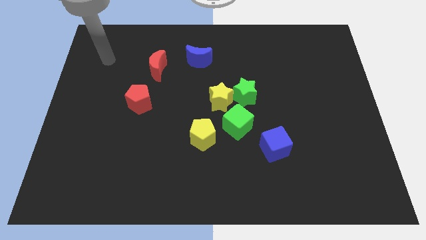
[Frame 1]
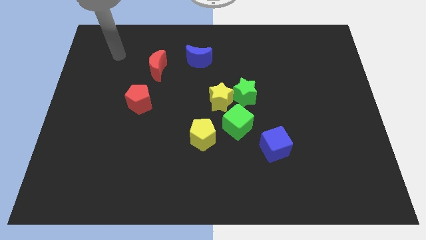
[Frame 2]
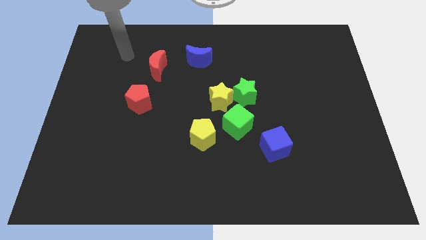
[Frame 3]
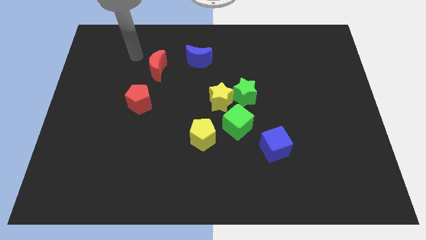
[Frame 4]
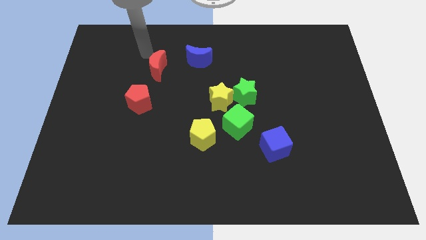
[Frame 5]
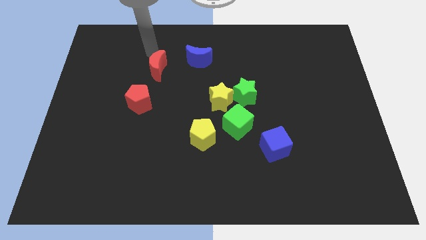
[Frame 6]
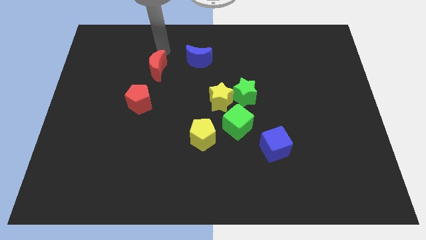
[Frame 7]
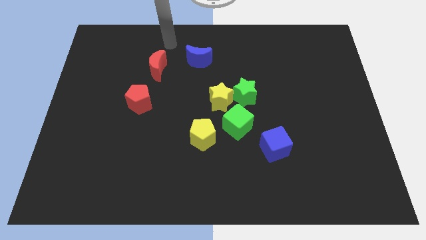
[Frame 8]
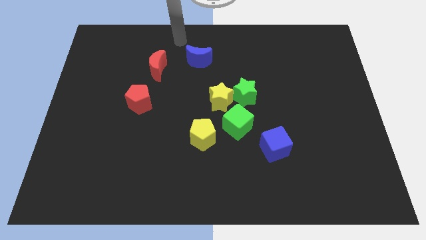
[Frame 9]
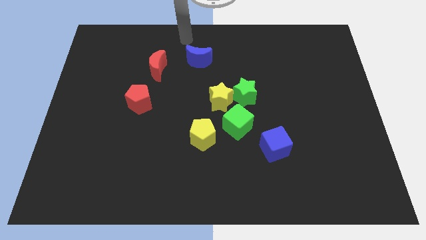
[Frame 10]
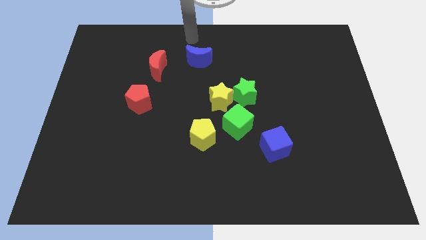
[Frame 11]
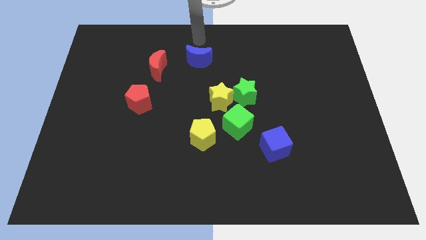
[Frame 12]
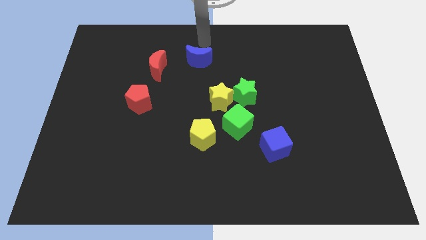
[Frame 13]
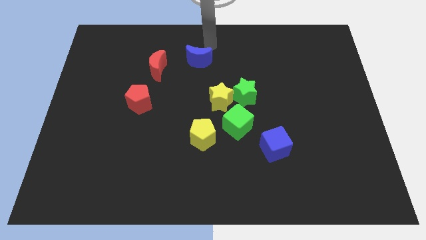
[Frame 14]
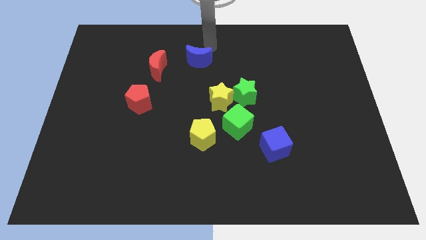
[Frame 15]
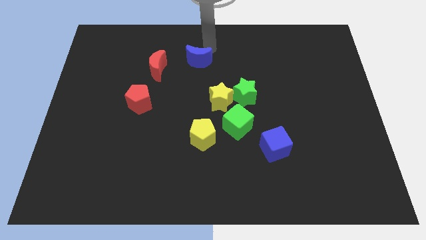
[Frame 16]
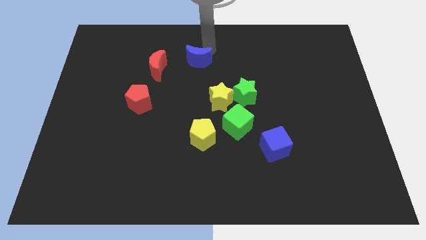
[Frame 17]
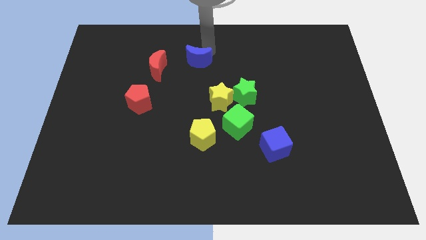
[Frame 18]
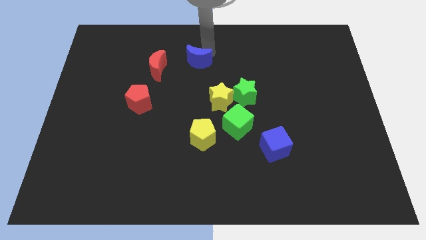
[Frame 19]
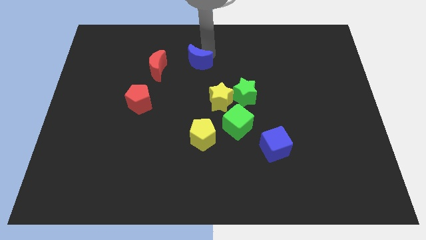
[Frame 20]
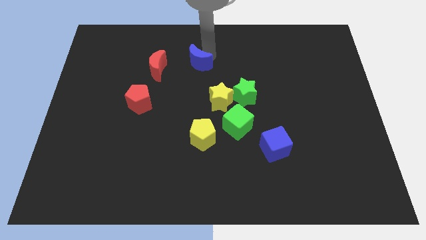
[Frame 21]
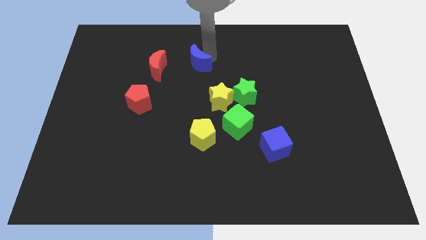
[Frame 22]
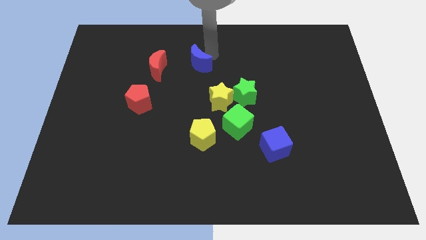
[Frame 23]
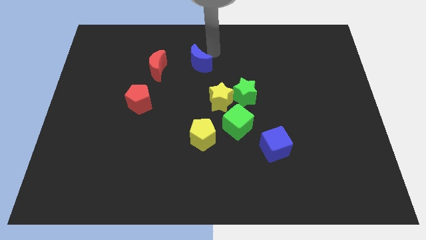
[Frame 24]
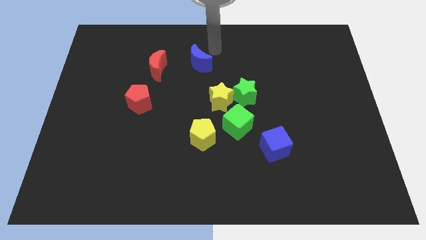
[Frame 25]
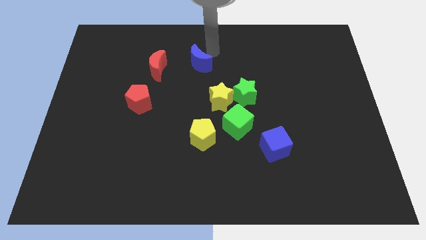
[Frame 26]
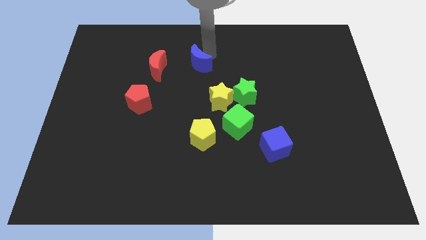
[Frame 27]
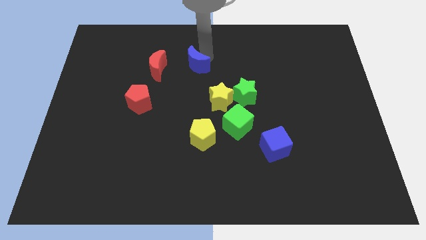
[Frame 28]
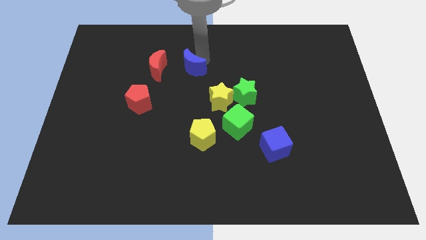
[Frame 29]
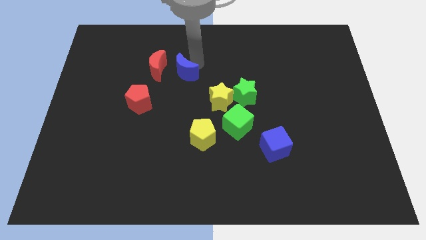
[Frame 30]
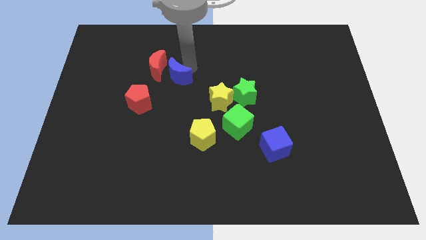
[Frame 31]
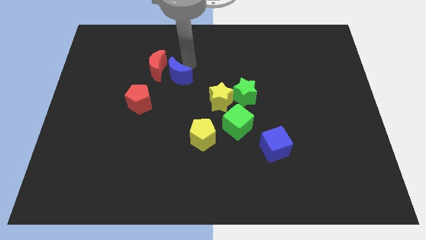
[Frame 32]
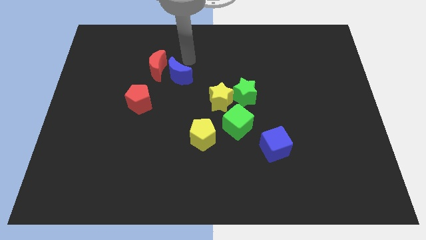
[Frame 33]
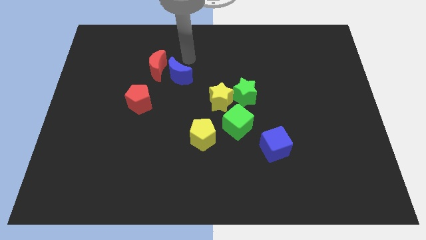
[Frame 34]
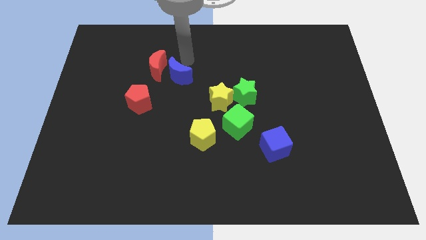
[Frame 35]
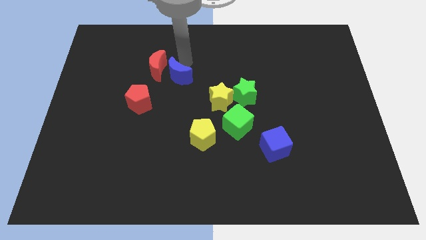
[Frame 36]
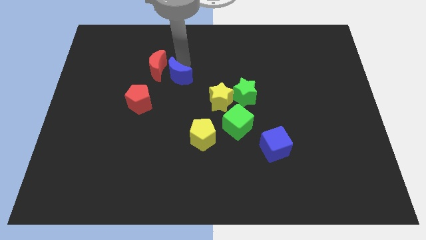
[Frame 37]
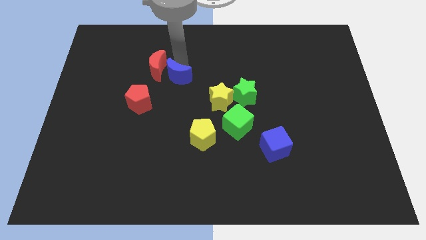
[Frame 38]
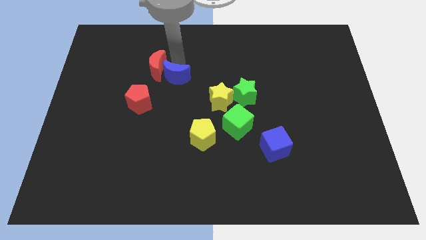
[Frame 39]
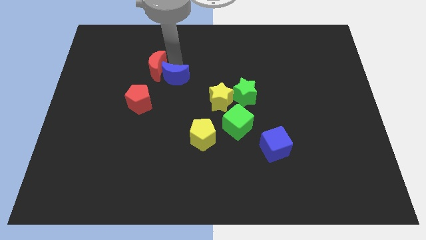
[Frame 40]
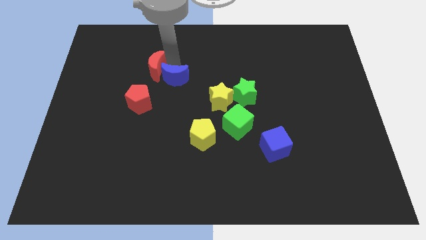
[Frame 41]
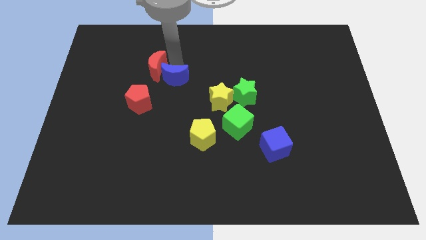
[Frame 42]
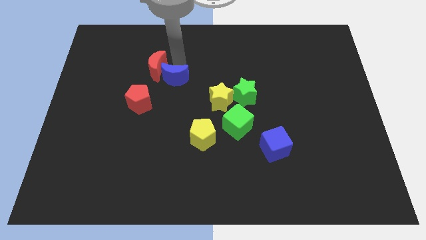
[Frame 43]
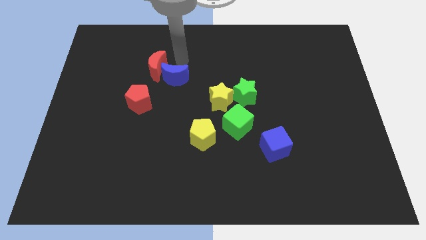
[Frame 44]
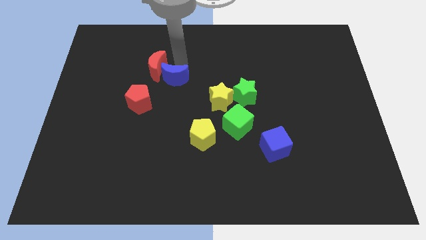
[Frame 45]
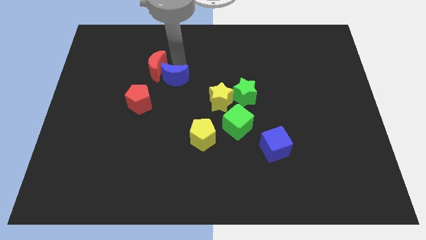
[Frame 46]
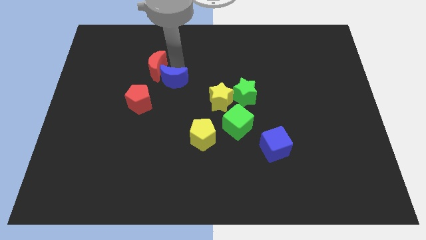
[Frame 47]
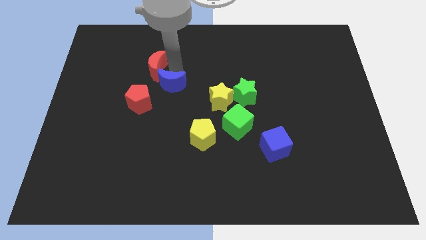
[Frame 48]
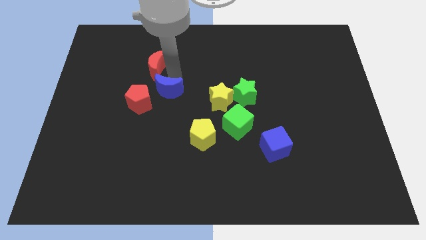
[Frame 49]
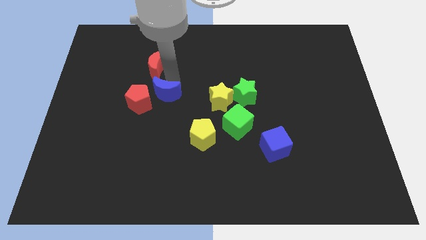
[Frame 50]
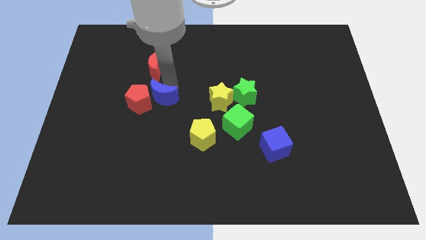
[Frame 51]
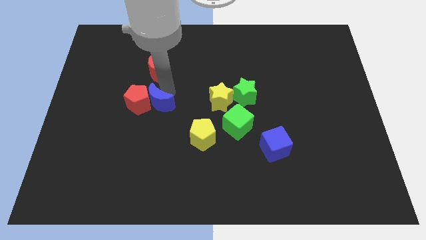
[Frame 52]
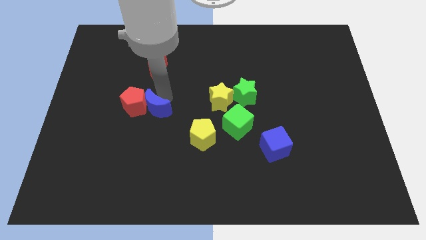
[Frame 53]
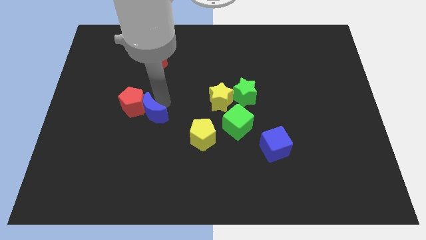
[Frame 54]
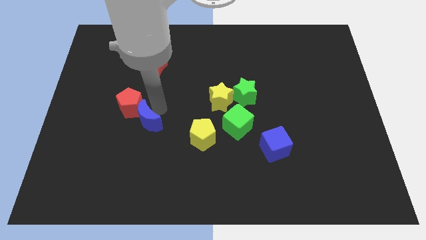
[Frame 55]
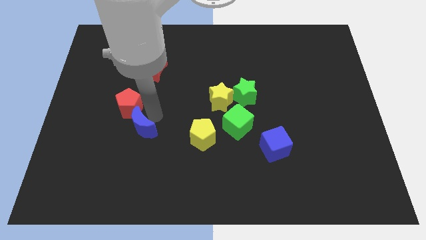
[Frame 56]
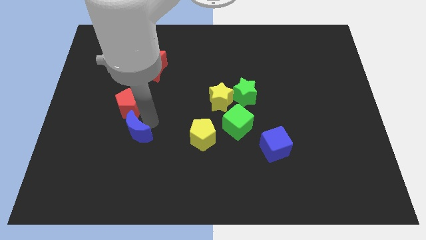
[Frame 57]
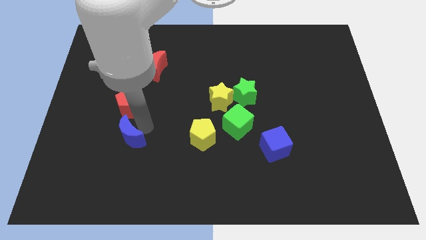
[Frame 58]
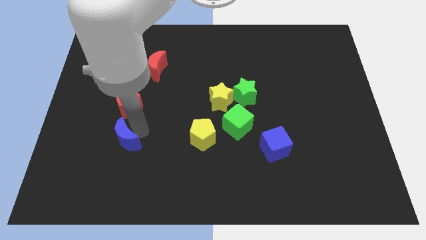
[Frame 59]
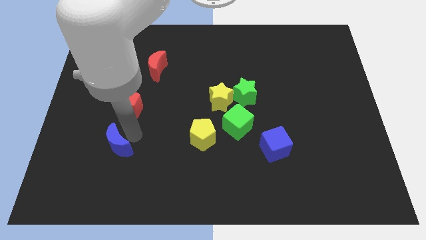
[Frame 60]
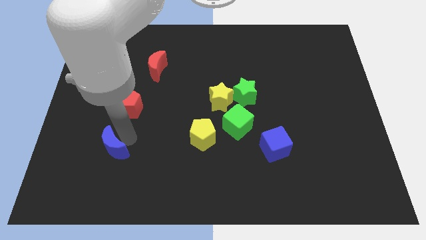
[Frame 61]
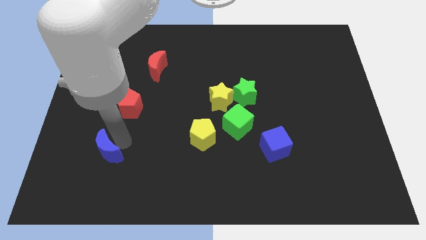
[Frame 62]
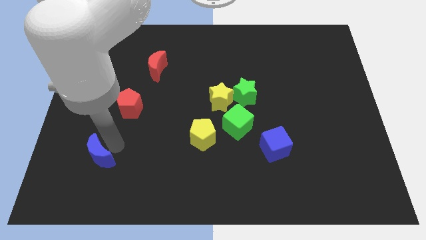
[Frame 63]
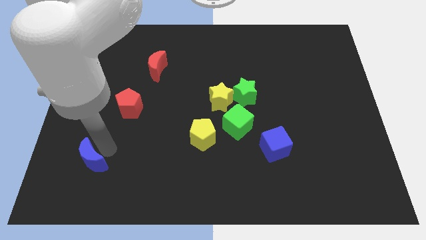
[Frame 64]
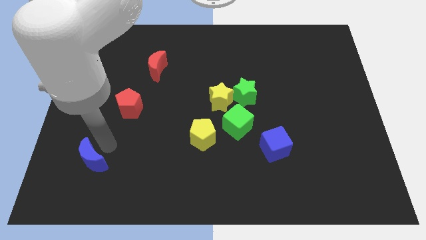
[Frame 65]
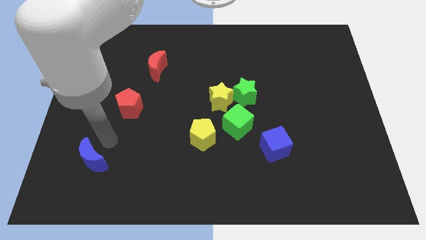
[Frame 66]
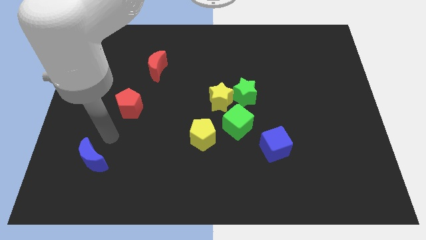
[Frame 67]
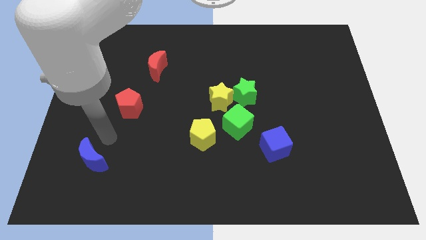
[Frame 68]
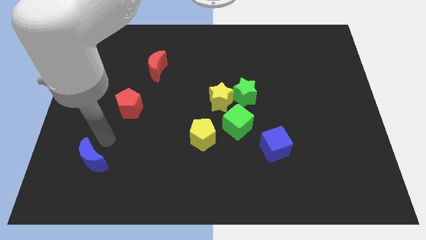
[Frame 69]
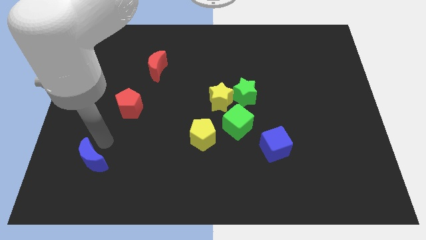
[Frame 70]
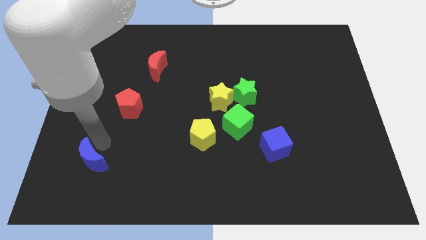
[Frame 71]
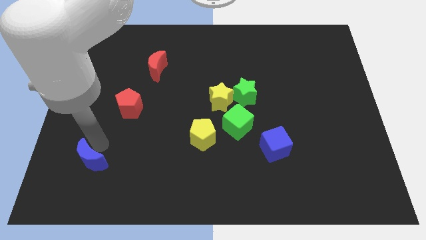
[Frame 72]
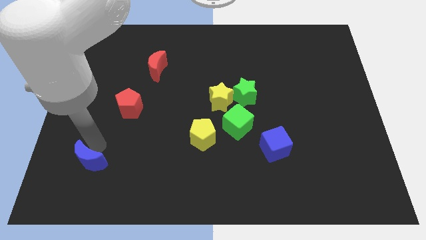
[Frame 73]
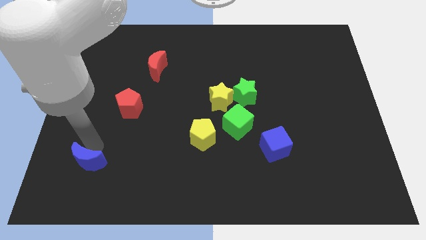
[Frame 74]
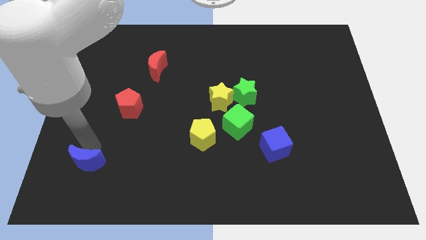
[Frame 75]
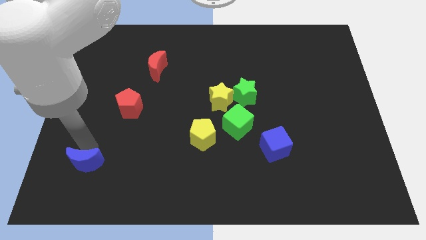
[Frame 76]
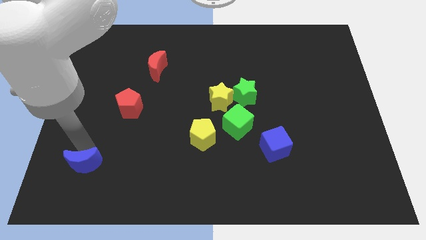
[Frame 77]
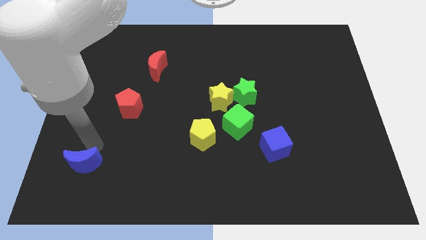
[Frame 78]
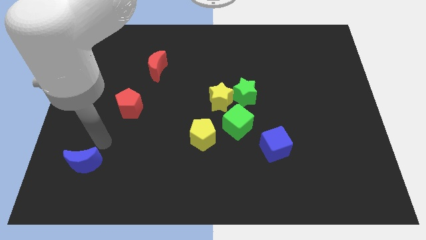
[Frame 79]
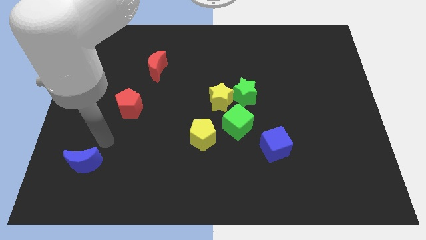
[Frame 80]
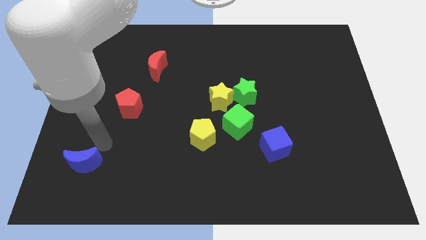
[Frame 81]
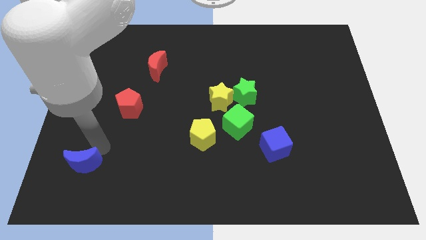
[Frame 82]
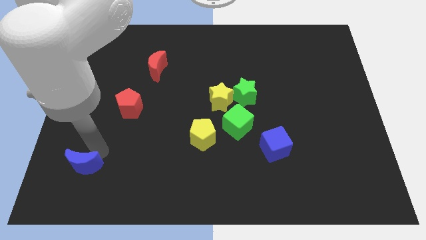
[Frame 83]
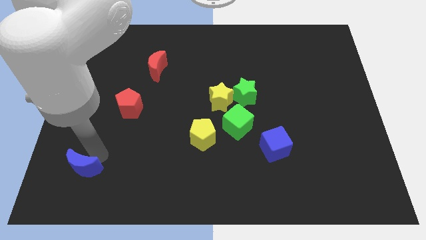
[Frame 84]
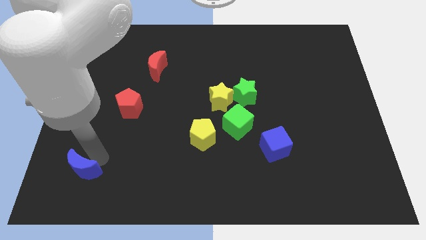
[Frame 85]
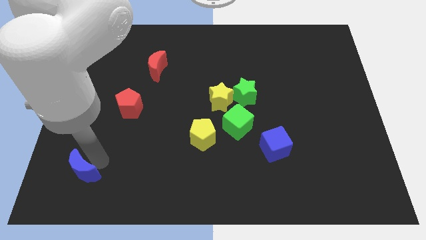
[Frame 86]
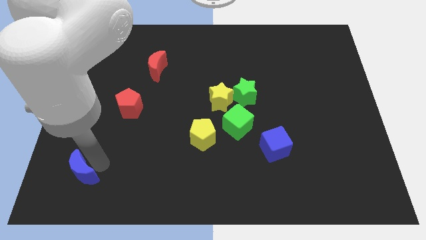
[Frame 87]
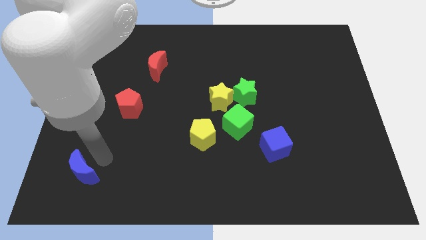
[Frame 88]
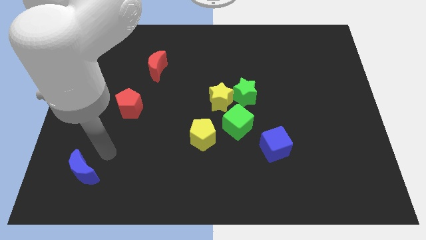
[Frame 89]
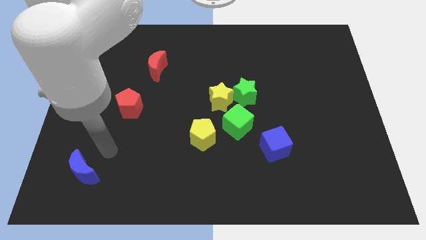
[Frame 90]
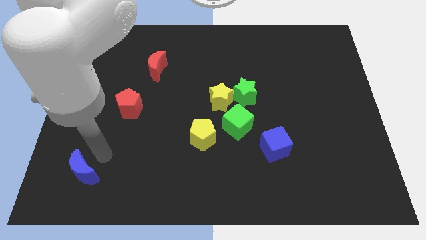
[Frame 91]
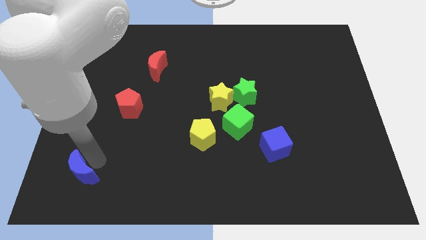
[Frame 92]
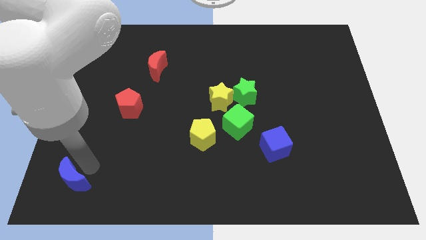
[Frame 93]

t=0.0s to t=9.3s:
move the blue moon to the bottom left
